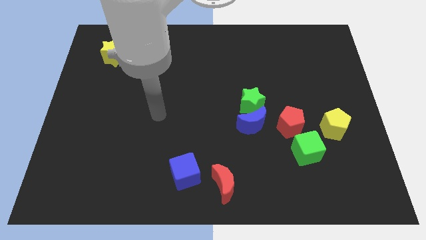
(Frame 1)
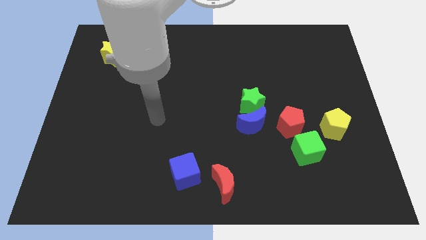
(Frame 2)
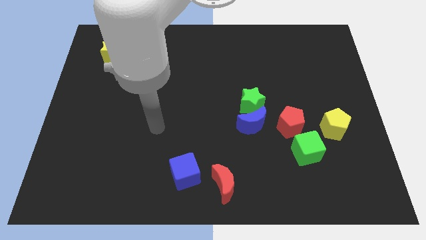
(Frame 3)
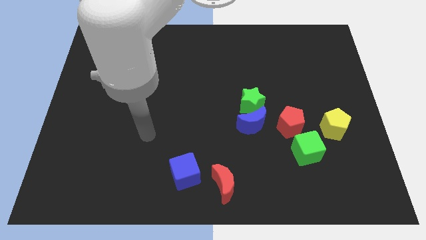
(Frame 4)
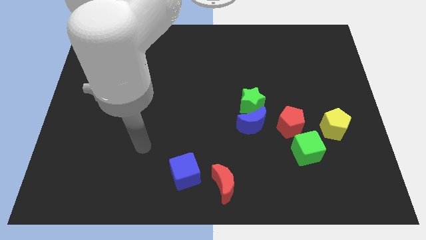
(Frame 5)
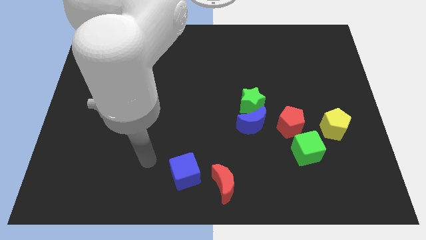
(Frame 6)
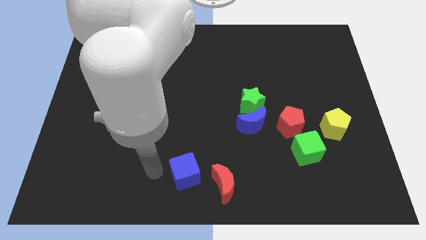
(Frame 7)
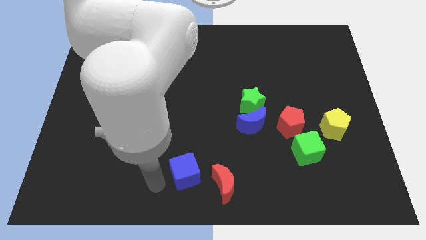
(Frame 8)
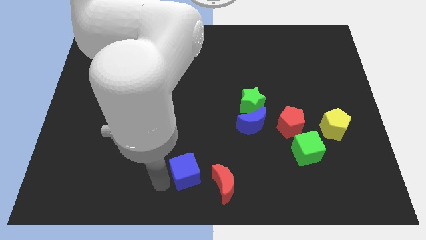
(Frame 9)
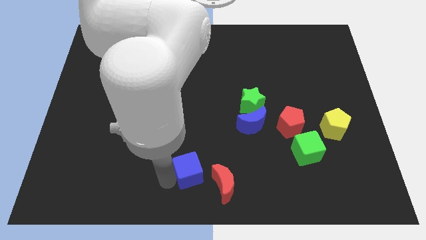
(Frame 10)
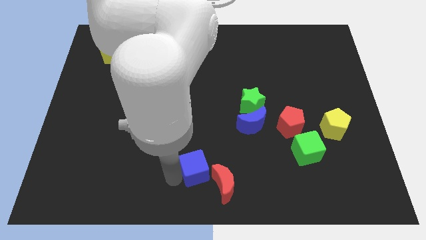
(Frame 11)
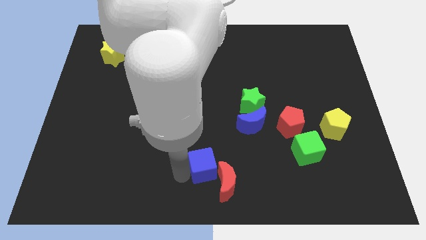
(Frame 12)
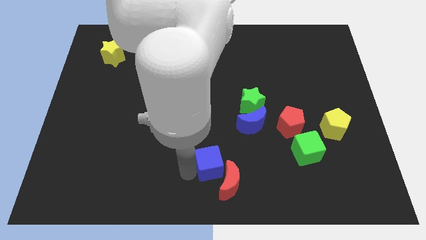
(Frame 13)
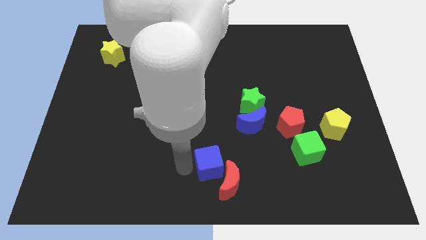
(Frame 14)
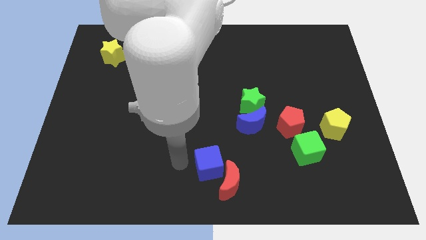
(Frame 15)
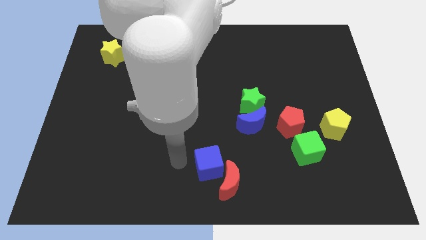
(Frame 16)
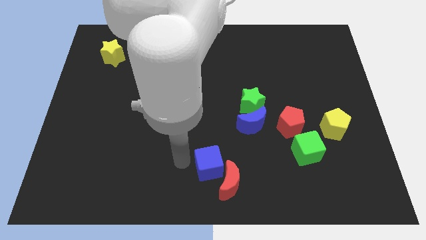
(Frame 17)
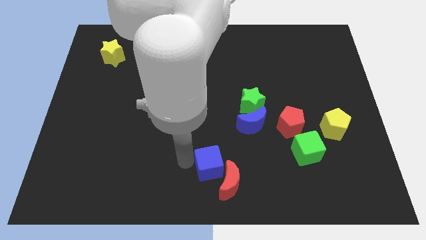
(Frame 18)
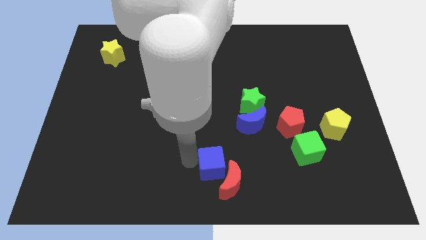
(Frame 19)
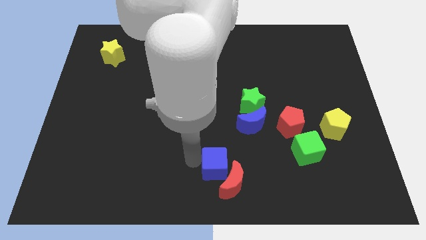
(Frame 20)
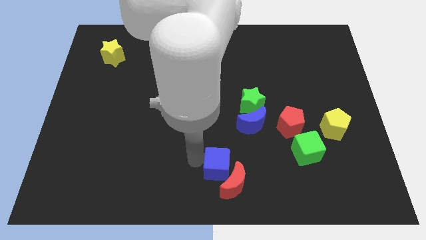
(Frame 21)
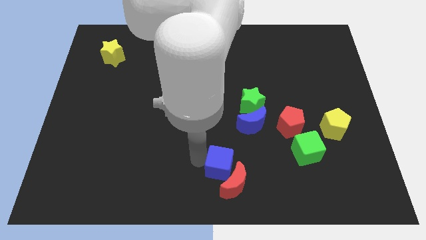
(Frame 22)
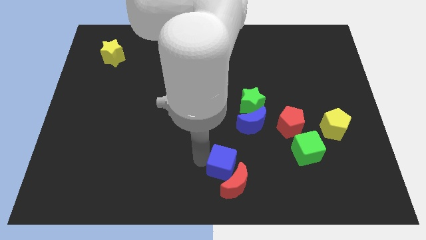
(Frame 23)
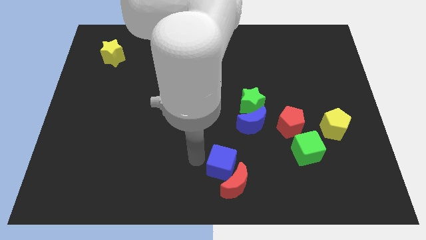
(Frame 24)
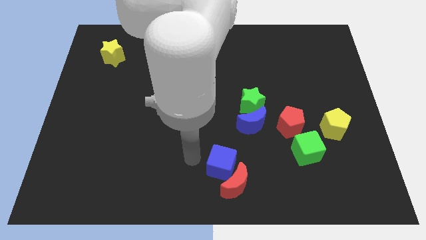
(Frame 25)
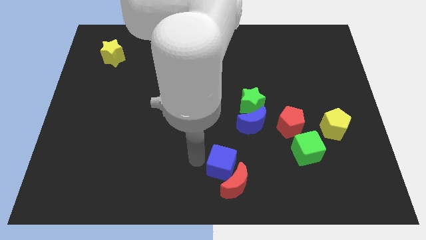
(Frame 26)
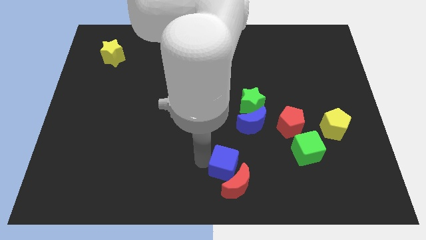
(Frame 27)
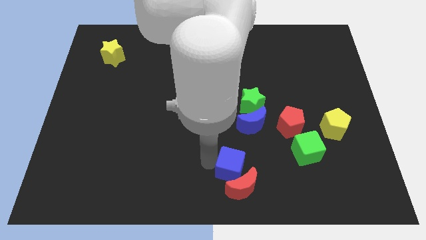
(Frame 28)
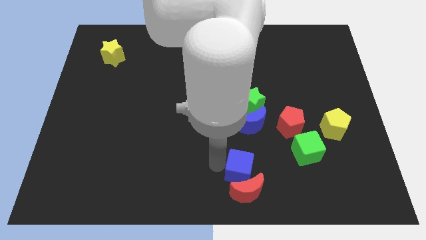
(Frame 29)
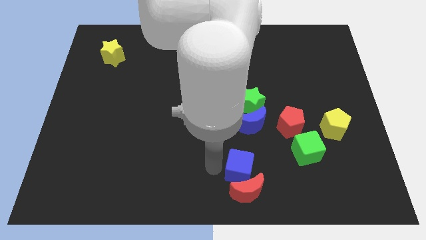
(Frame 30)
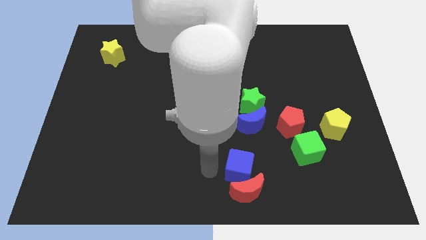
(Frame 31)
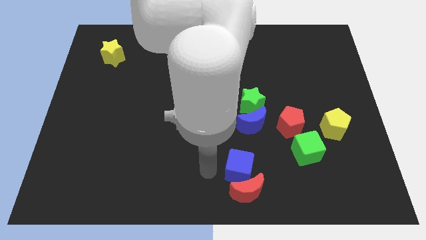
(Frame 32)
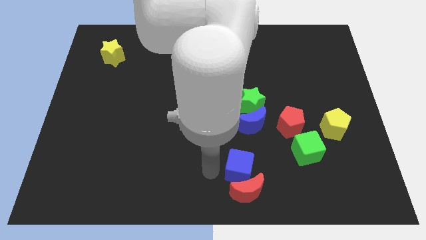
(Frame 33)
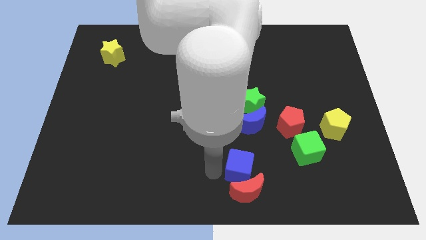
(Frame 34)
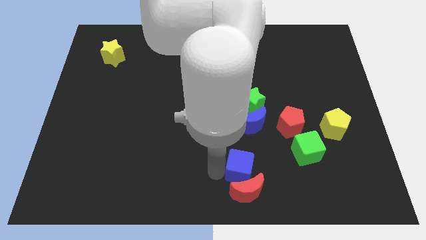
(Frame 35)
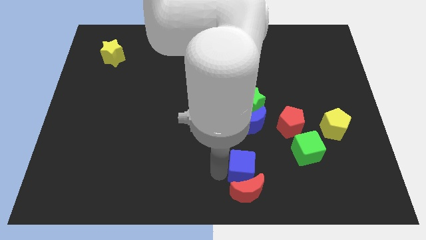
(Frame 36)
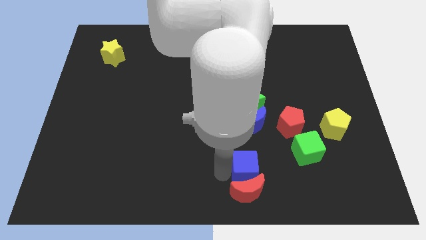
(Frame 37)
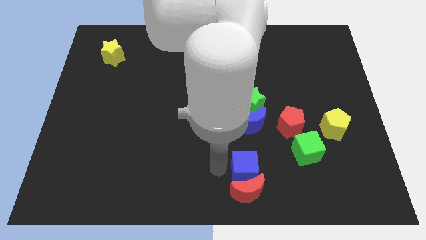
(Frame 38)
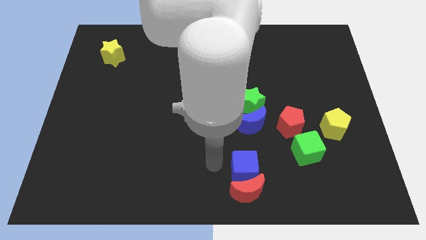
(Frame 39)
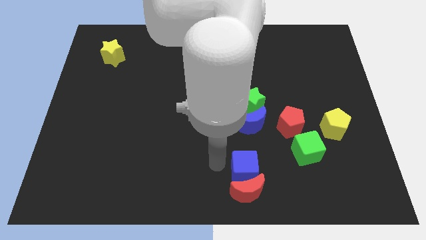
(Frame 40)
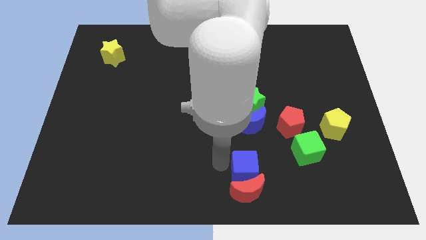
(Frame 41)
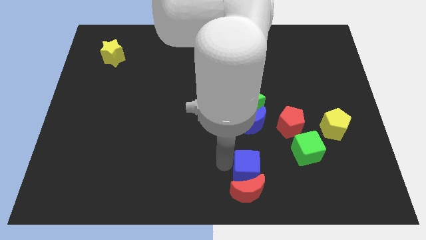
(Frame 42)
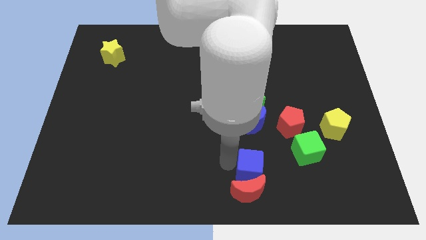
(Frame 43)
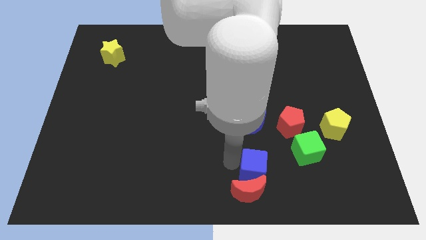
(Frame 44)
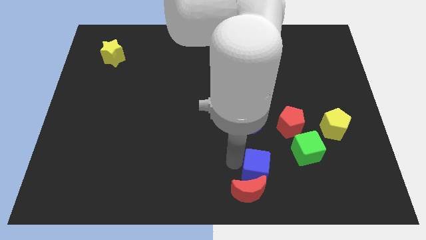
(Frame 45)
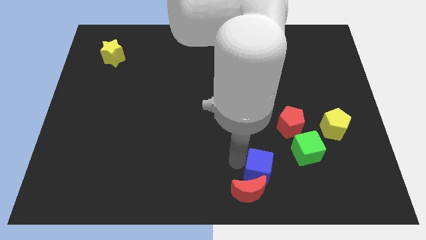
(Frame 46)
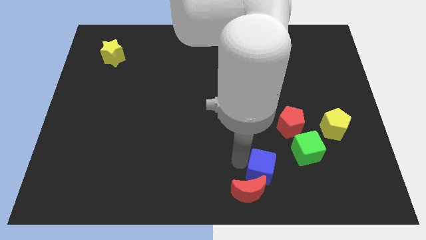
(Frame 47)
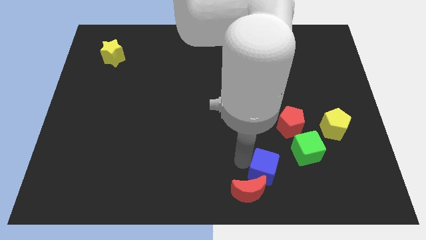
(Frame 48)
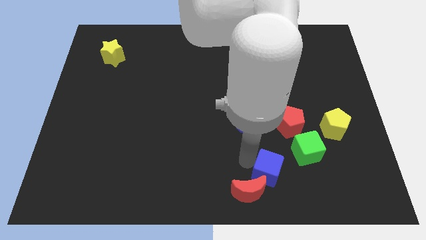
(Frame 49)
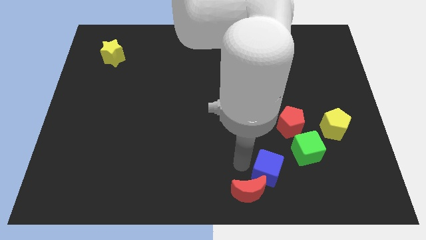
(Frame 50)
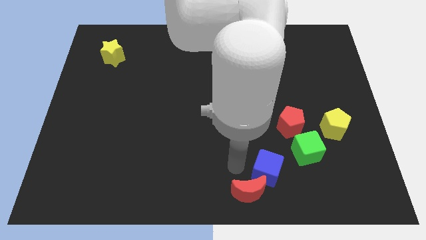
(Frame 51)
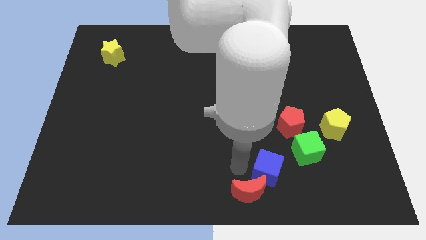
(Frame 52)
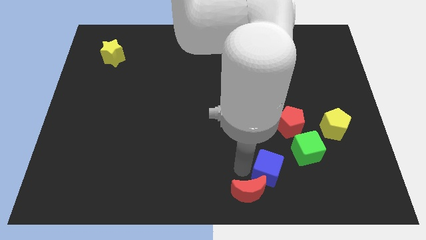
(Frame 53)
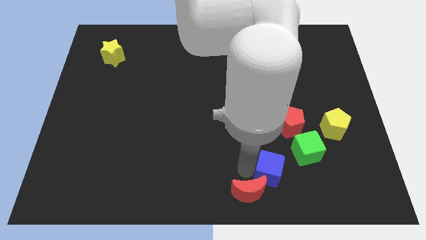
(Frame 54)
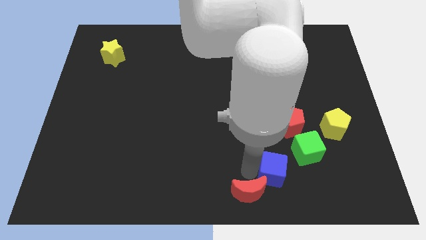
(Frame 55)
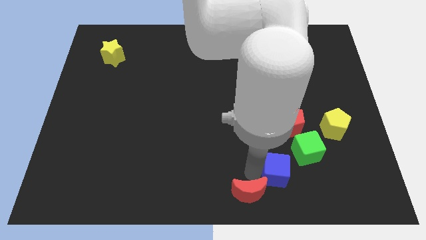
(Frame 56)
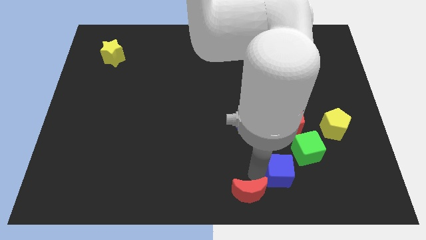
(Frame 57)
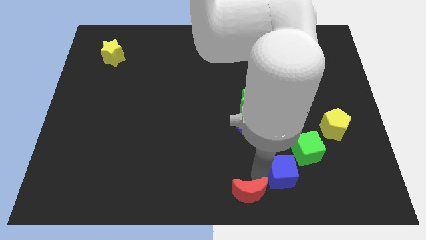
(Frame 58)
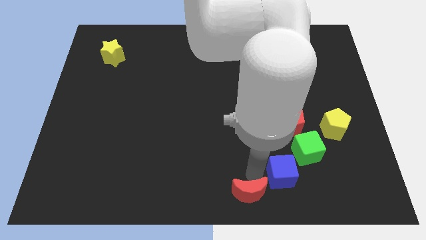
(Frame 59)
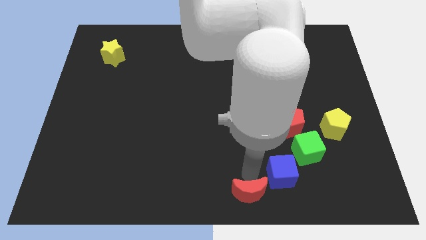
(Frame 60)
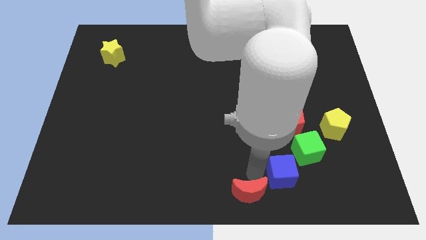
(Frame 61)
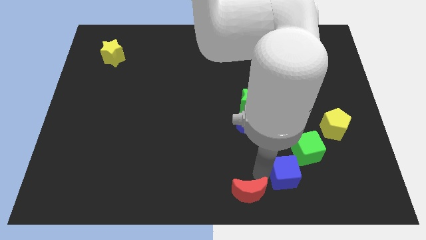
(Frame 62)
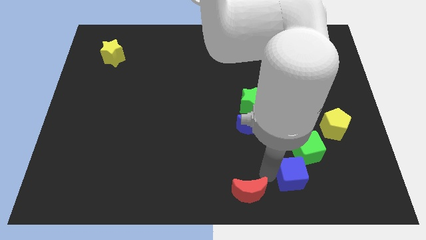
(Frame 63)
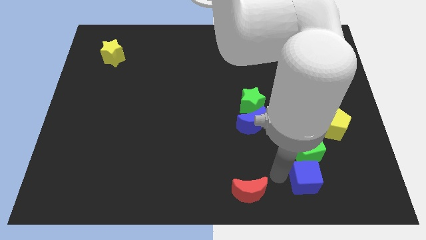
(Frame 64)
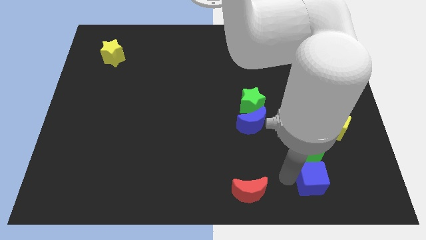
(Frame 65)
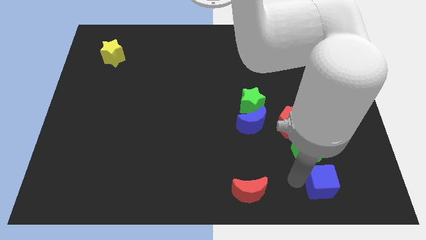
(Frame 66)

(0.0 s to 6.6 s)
move the blue cube to the bottom right of the green cube
